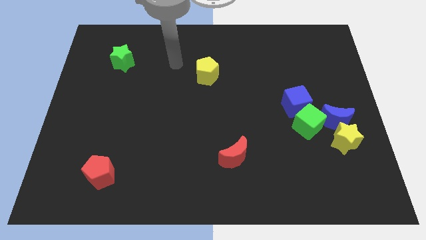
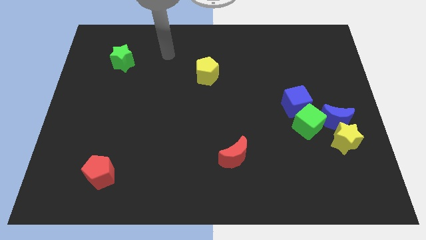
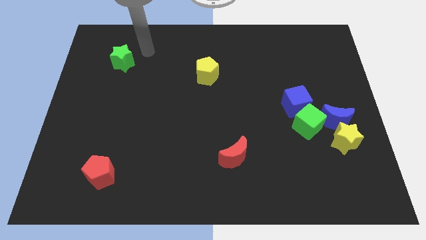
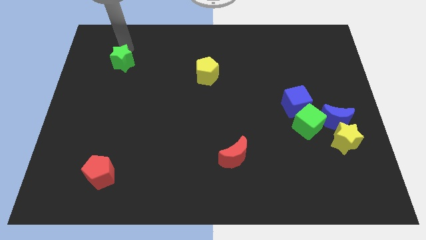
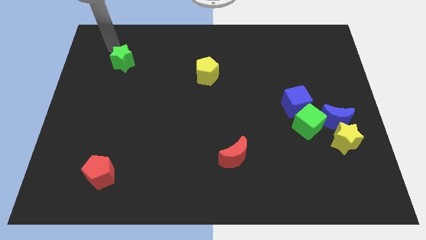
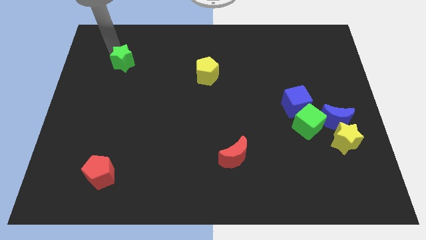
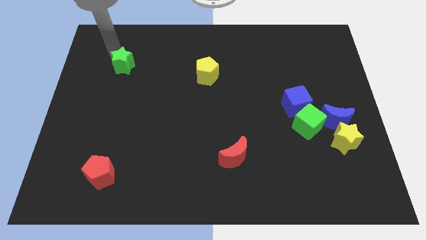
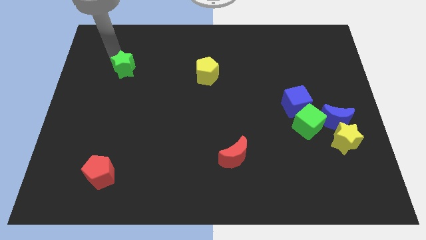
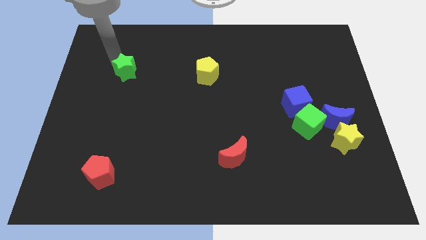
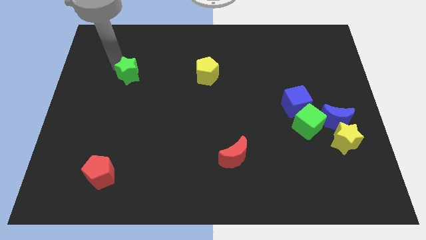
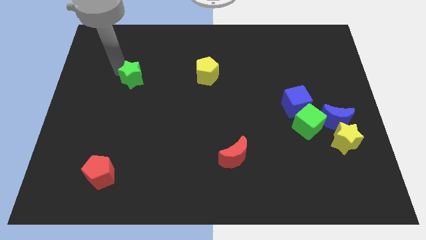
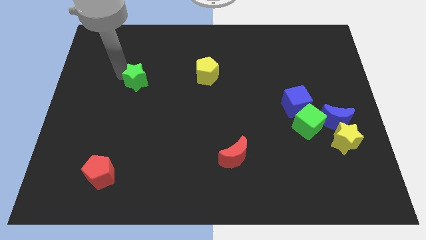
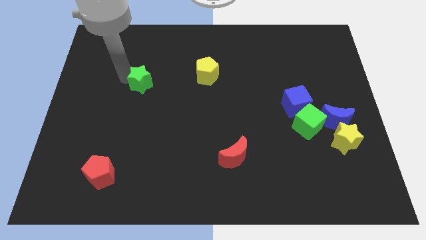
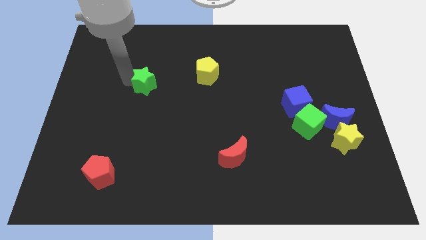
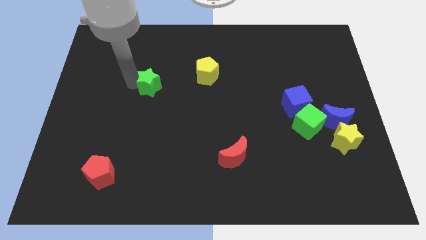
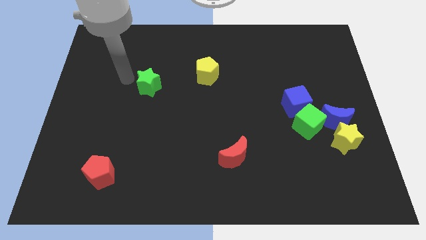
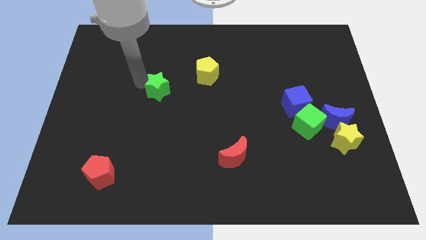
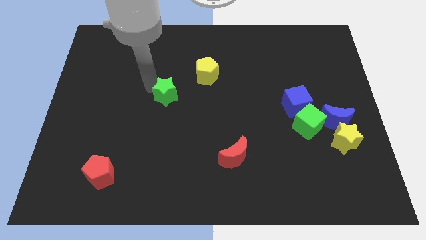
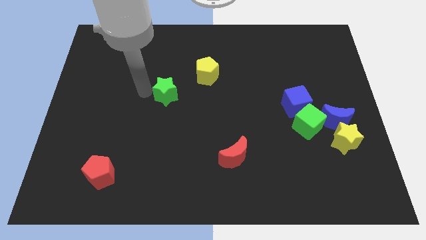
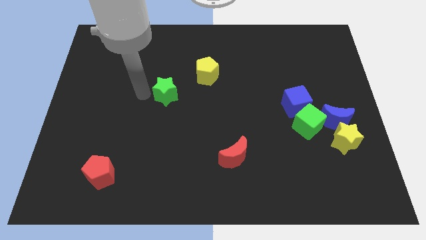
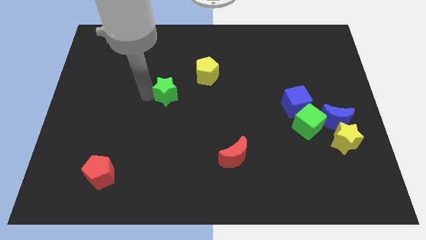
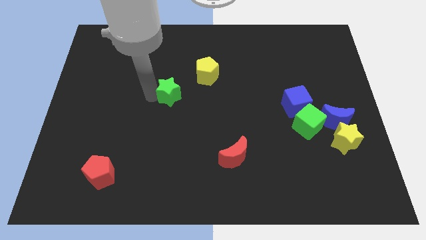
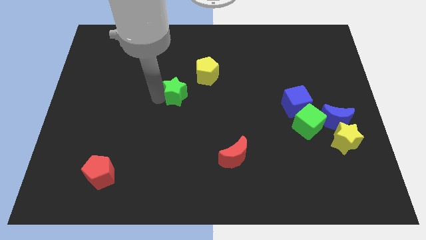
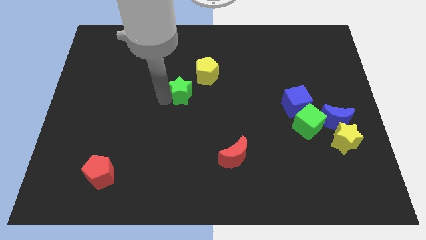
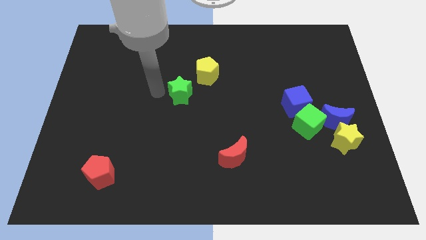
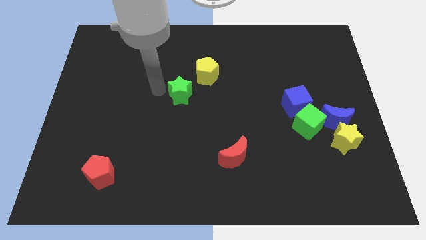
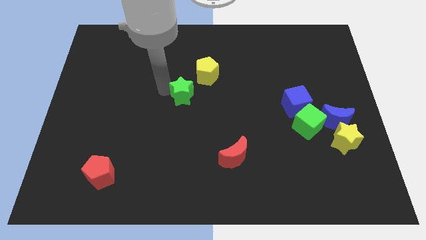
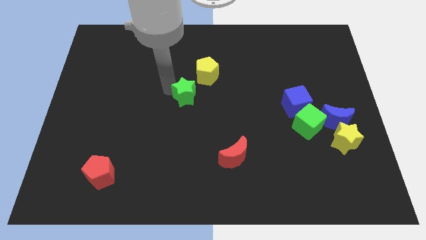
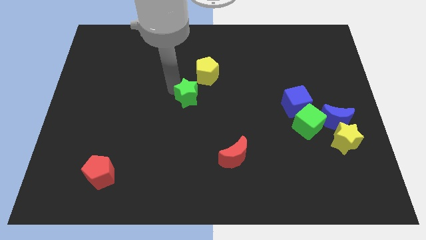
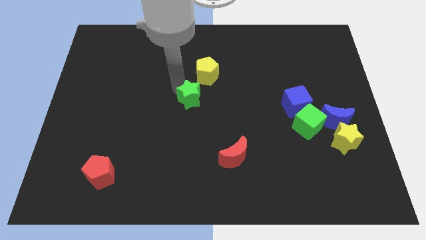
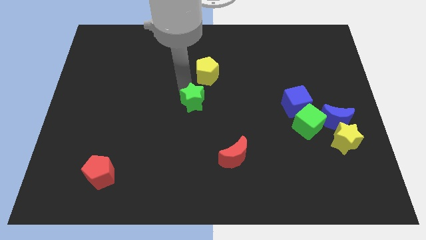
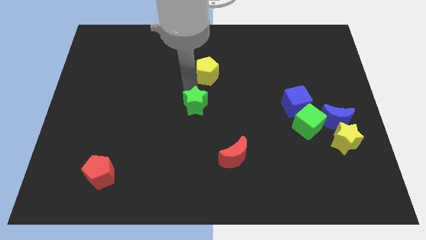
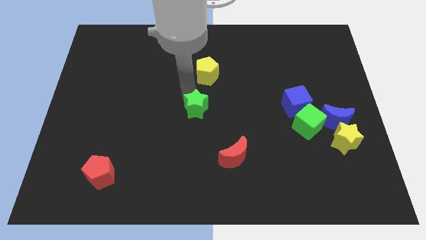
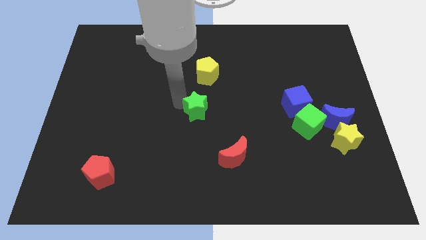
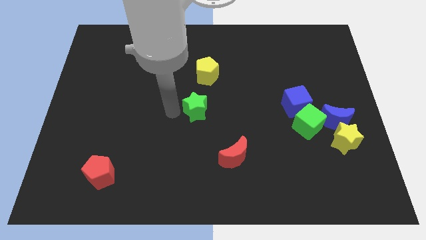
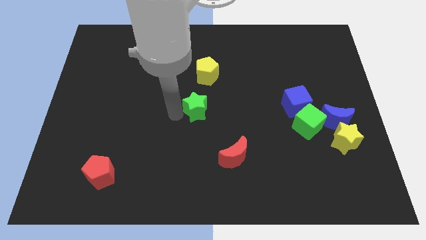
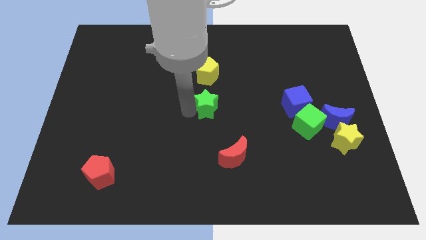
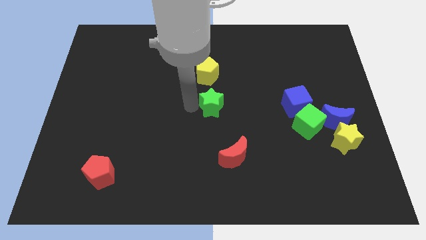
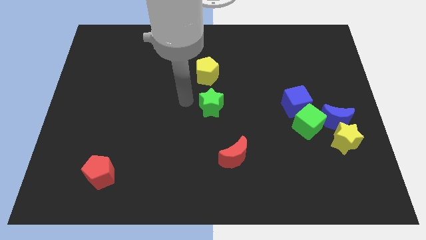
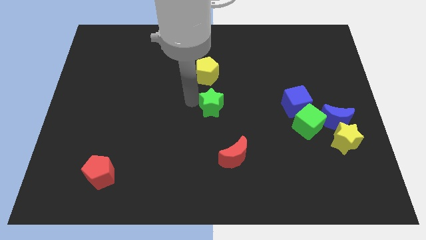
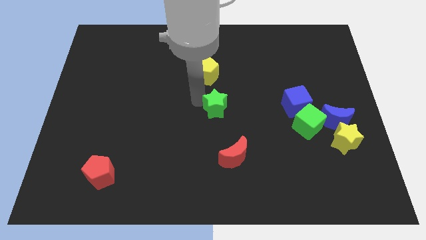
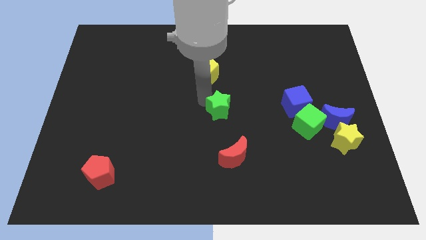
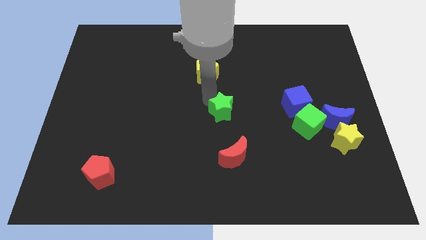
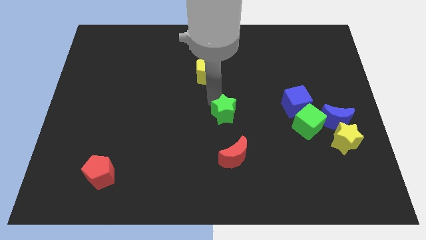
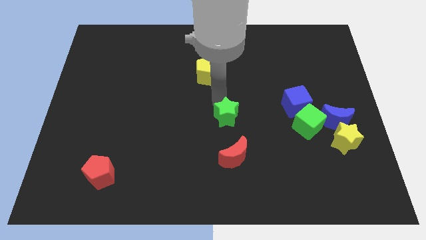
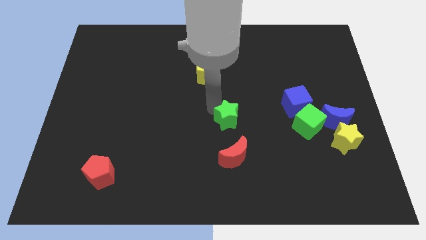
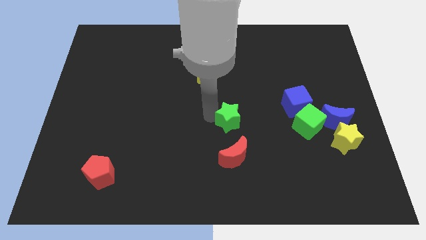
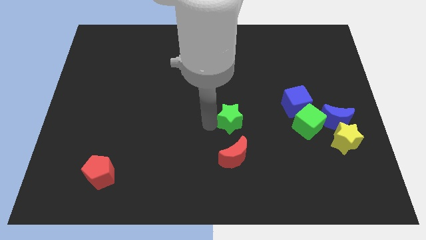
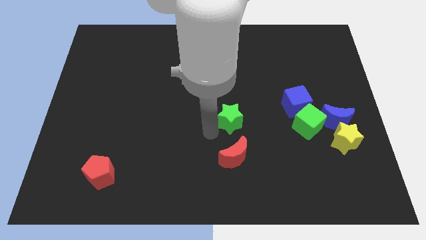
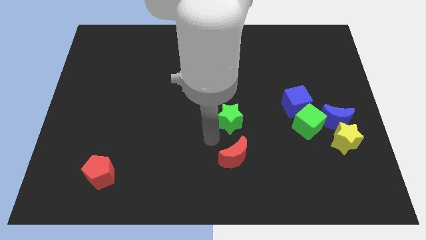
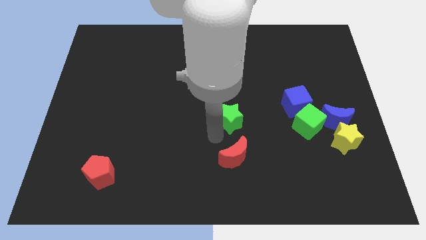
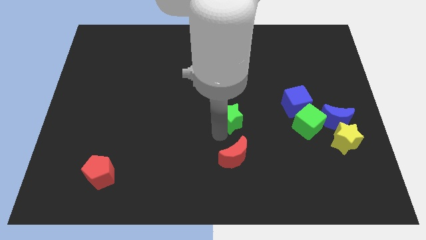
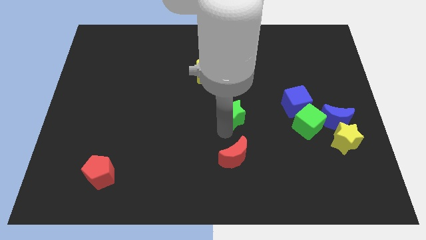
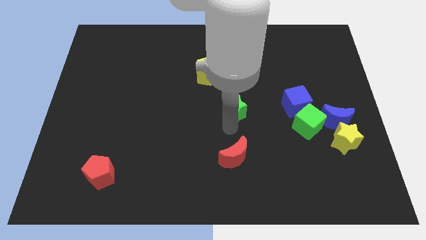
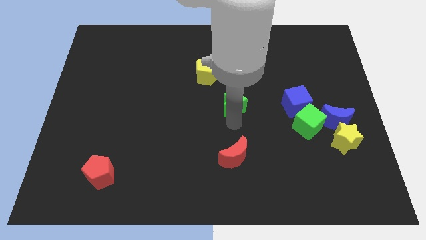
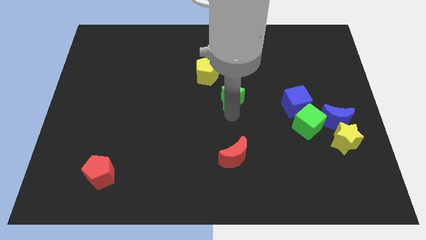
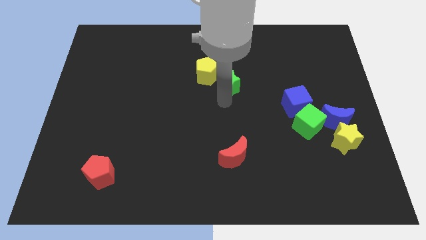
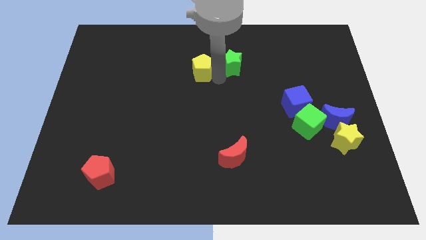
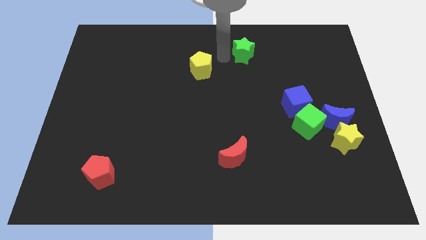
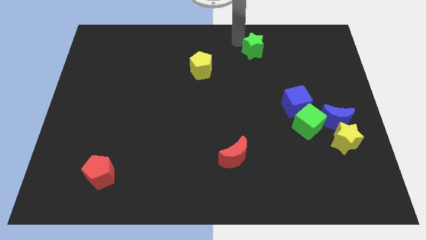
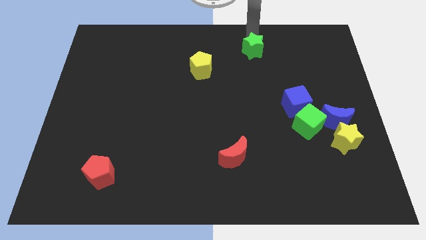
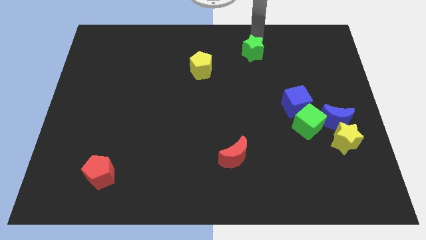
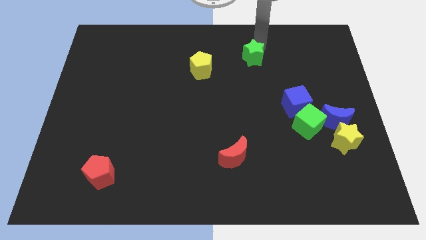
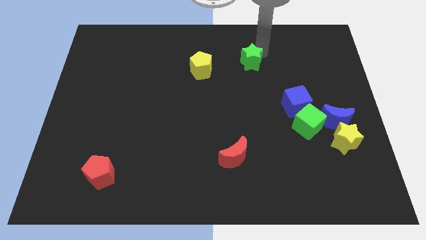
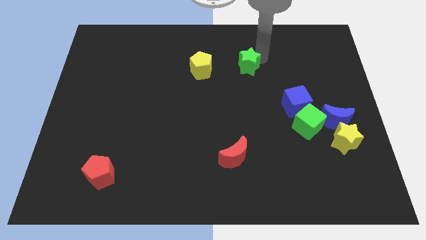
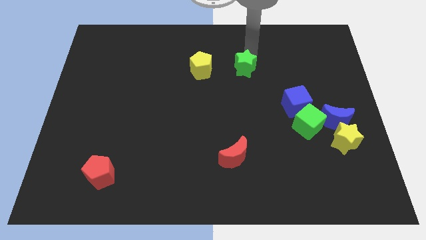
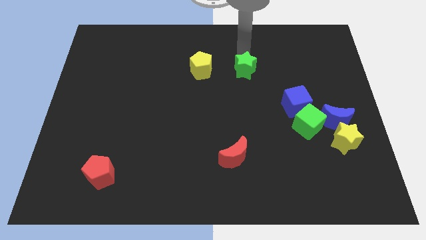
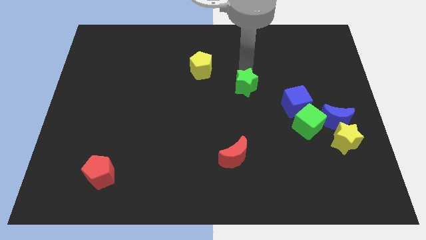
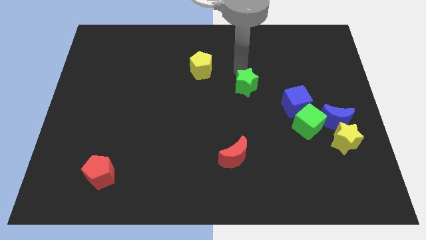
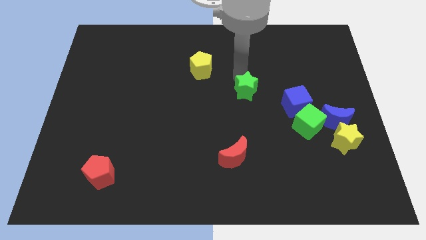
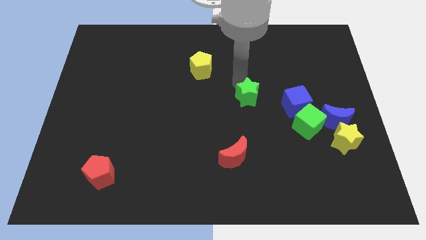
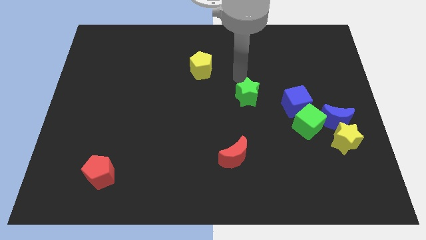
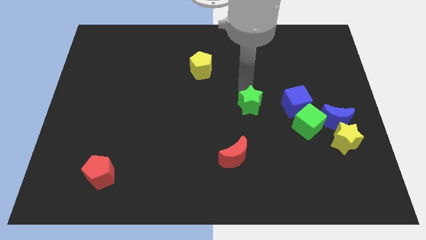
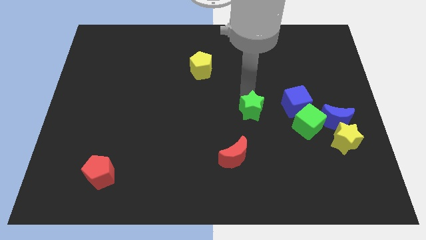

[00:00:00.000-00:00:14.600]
slide the green star to the left side of the green cube
